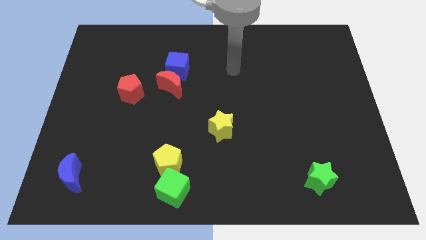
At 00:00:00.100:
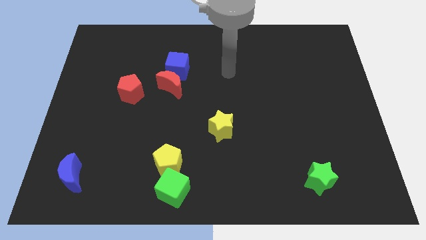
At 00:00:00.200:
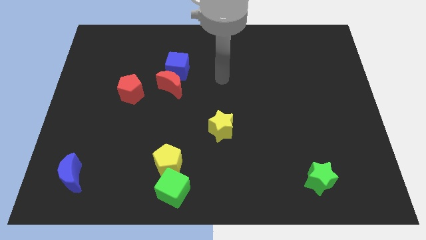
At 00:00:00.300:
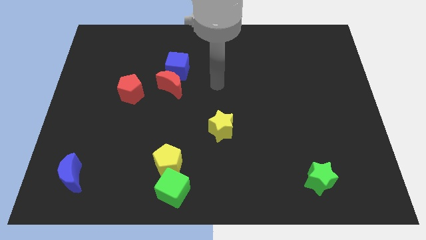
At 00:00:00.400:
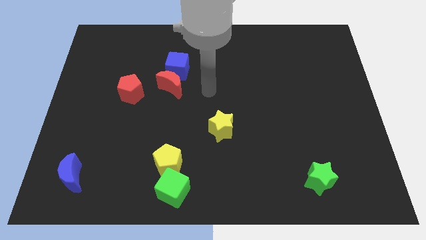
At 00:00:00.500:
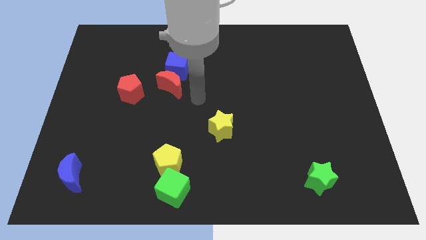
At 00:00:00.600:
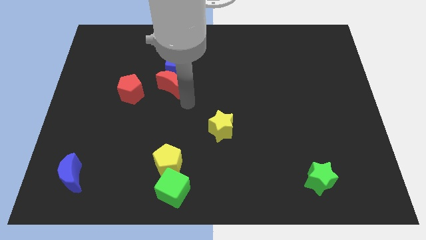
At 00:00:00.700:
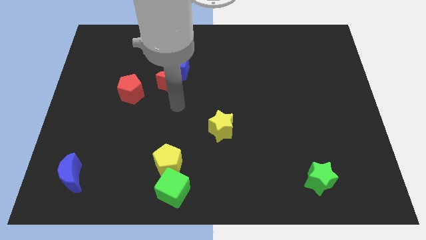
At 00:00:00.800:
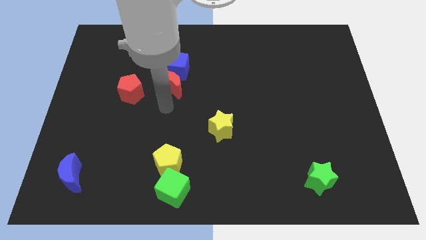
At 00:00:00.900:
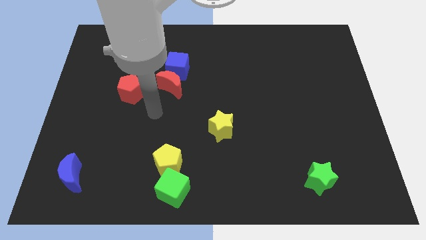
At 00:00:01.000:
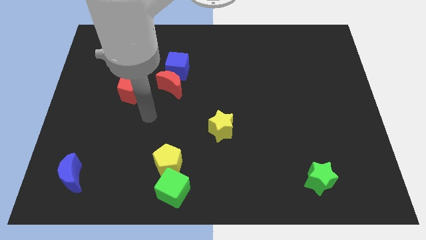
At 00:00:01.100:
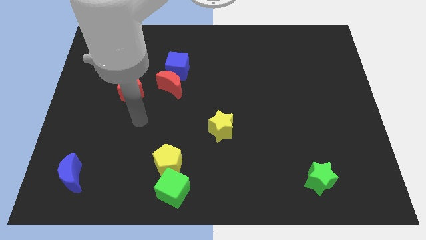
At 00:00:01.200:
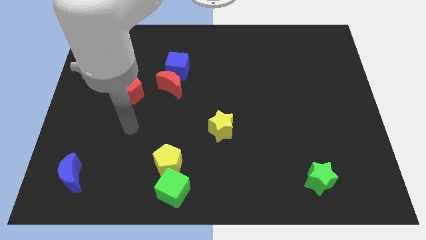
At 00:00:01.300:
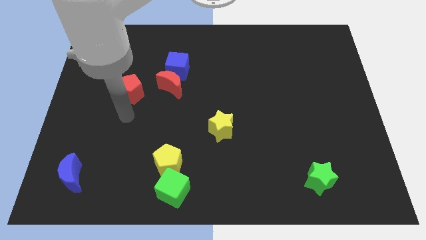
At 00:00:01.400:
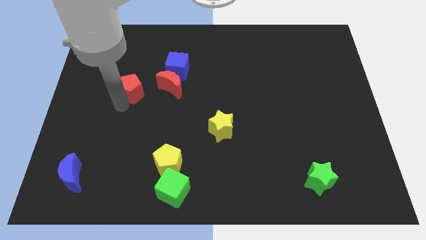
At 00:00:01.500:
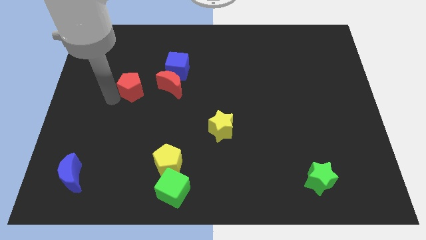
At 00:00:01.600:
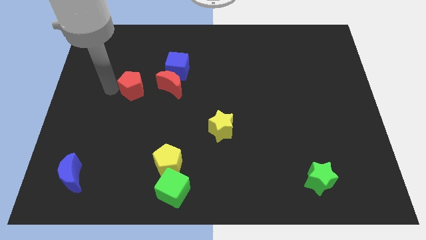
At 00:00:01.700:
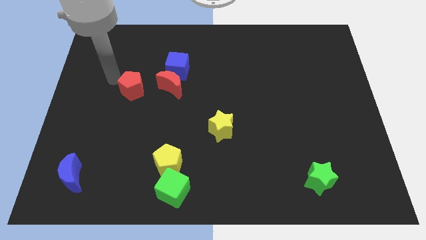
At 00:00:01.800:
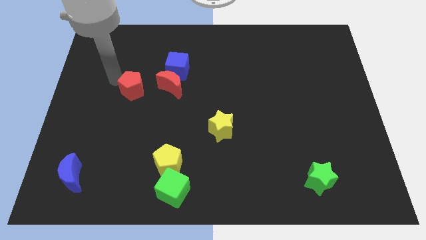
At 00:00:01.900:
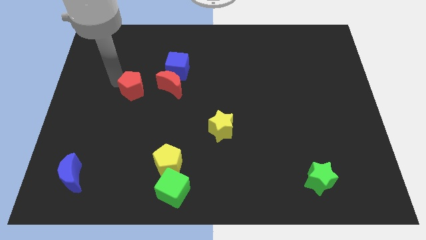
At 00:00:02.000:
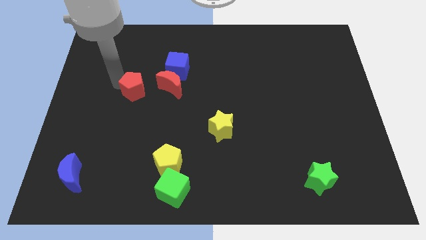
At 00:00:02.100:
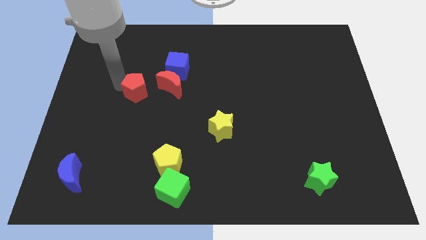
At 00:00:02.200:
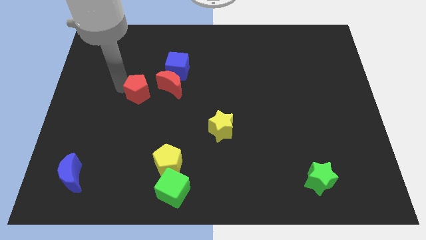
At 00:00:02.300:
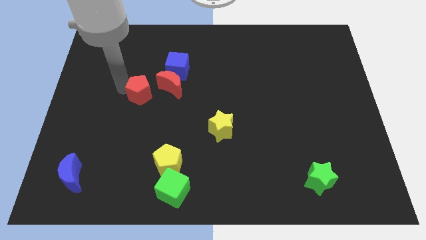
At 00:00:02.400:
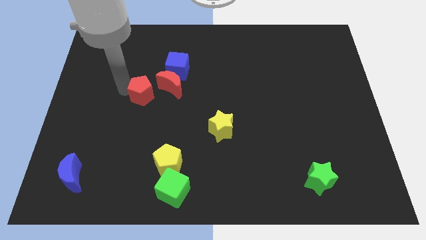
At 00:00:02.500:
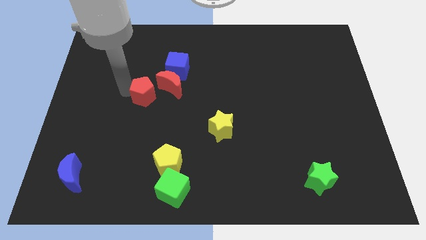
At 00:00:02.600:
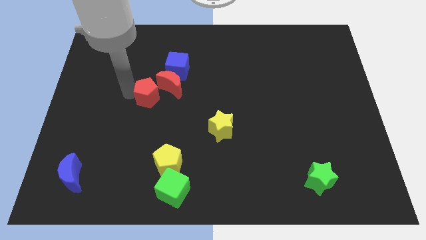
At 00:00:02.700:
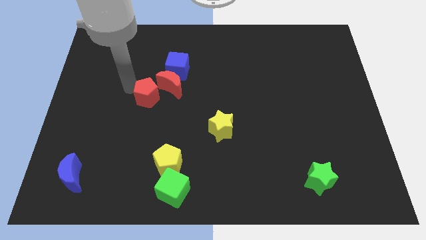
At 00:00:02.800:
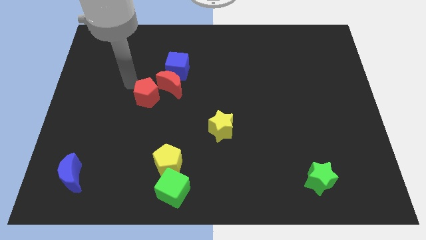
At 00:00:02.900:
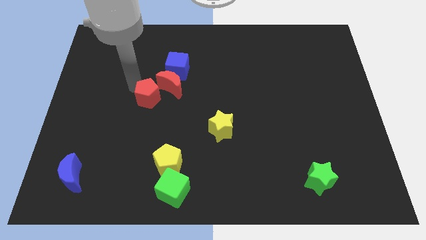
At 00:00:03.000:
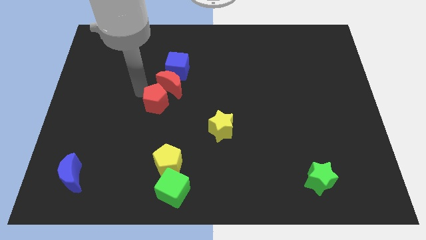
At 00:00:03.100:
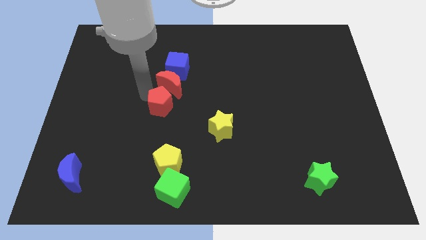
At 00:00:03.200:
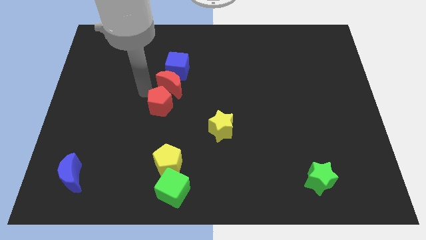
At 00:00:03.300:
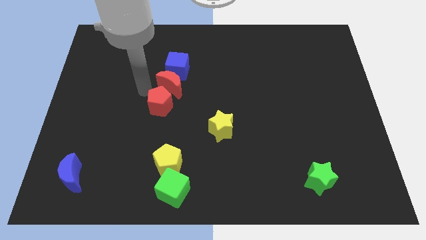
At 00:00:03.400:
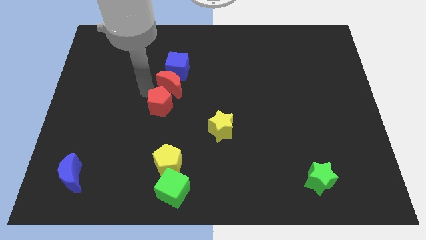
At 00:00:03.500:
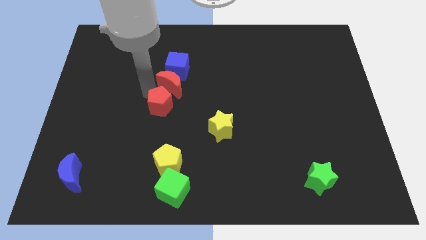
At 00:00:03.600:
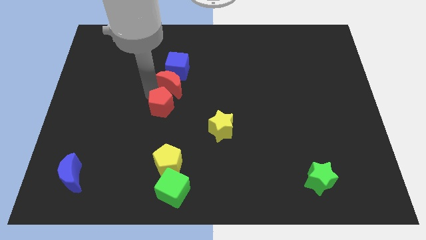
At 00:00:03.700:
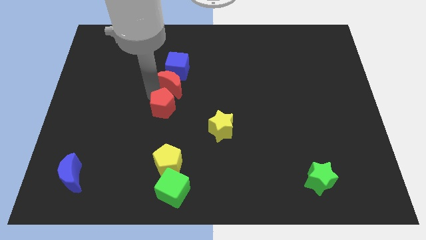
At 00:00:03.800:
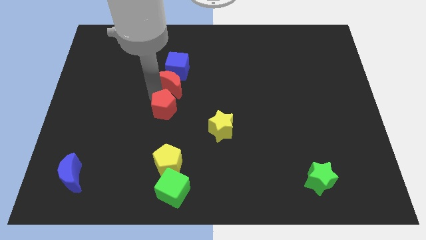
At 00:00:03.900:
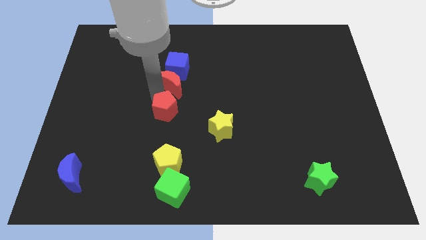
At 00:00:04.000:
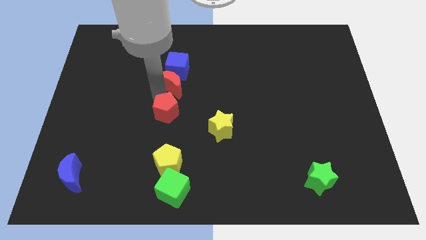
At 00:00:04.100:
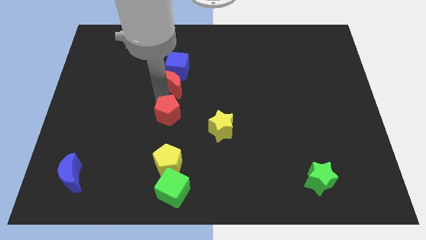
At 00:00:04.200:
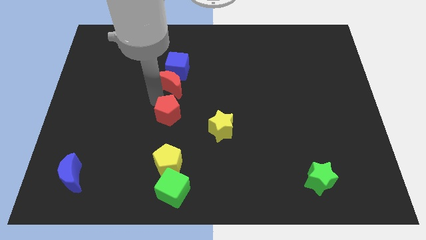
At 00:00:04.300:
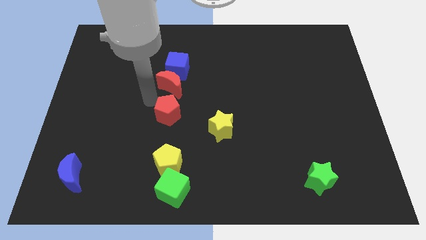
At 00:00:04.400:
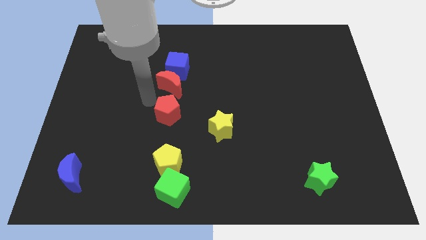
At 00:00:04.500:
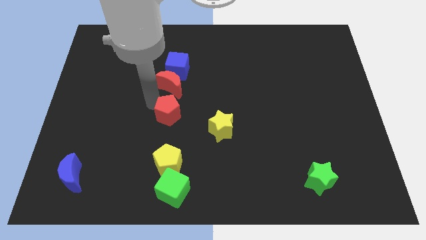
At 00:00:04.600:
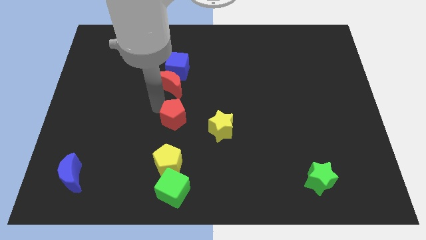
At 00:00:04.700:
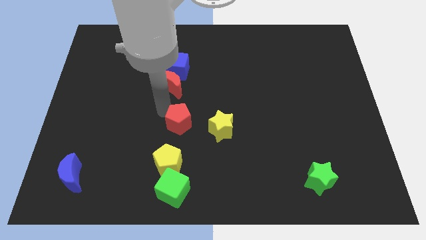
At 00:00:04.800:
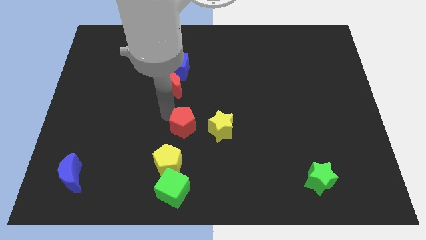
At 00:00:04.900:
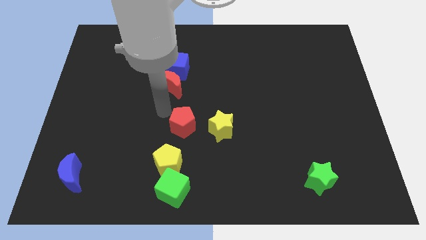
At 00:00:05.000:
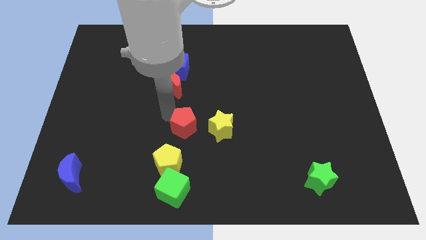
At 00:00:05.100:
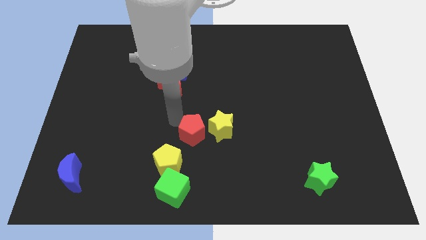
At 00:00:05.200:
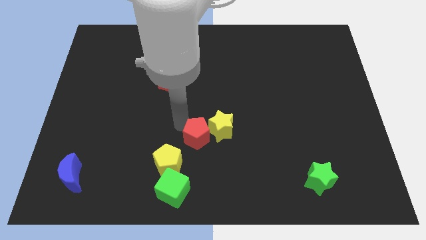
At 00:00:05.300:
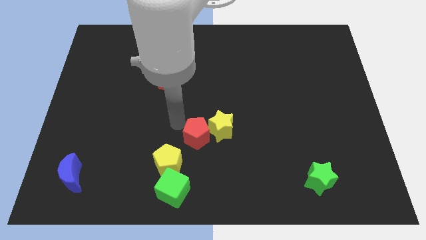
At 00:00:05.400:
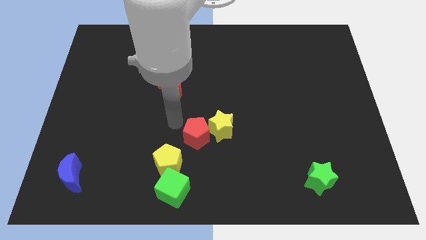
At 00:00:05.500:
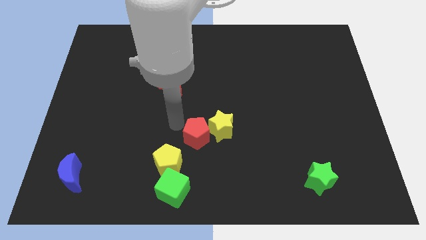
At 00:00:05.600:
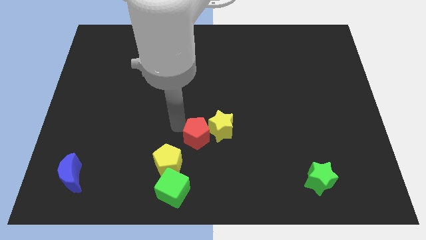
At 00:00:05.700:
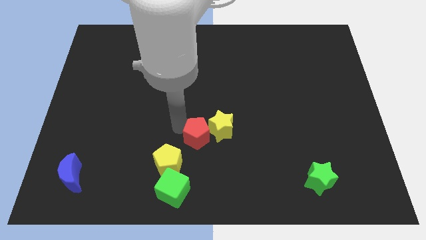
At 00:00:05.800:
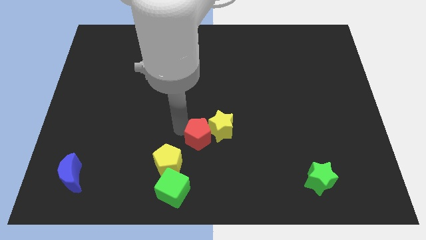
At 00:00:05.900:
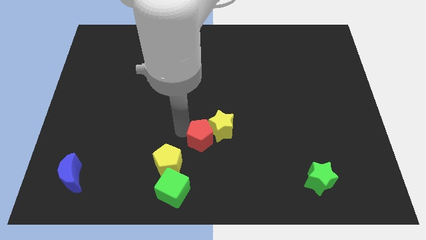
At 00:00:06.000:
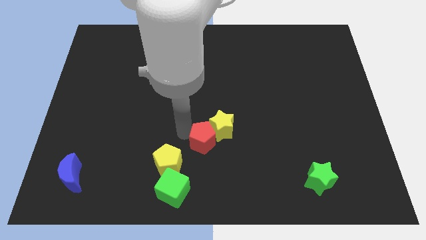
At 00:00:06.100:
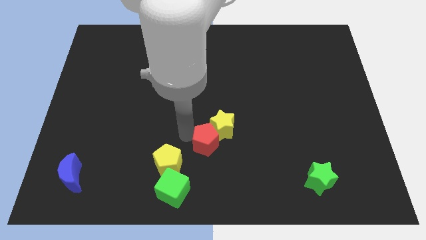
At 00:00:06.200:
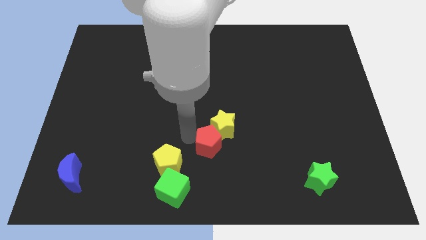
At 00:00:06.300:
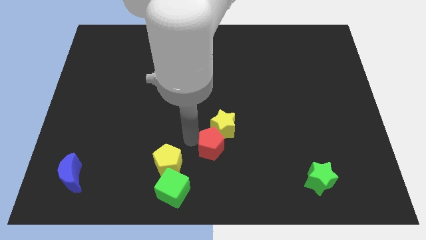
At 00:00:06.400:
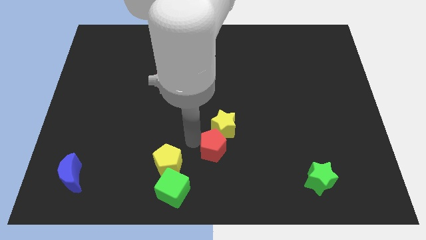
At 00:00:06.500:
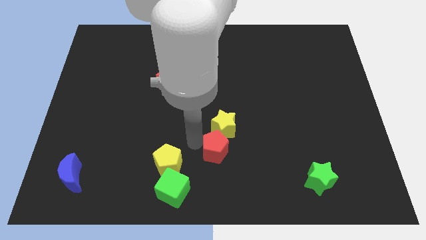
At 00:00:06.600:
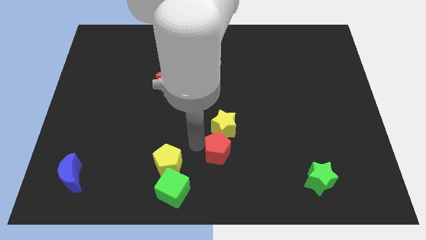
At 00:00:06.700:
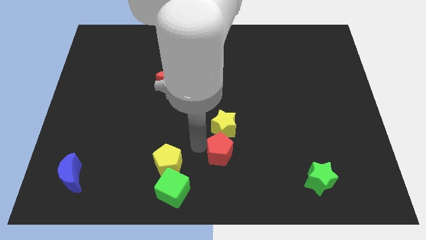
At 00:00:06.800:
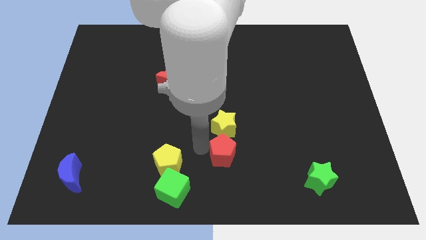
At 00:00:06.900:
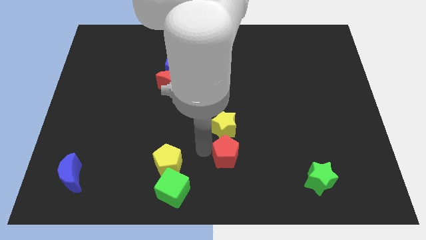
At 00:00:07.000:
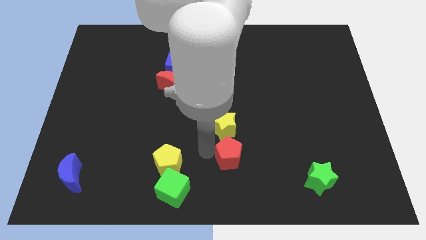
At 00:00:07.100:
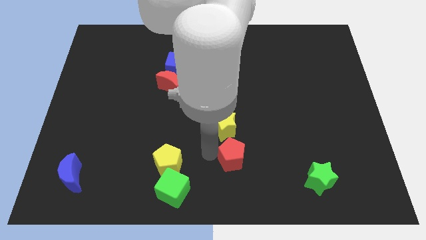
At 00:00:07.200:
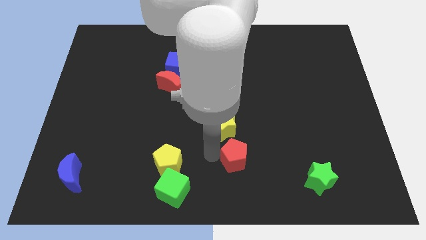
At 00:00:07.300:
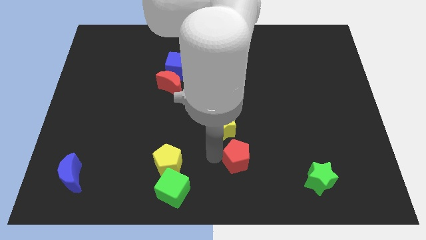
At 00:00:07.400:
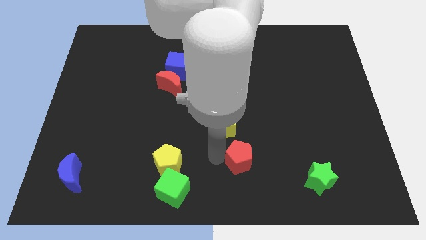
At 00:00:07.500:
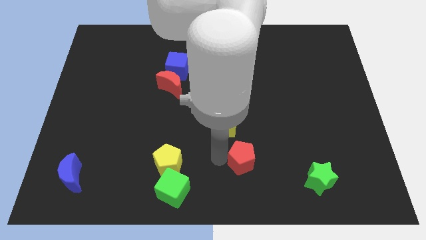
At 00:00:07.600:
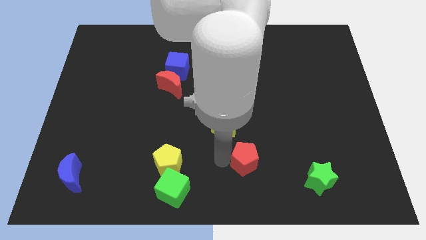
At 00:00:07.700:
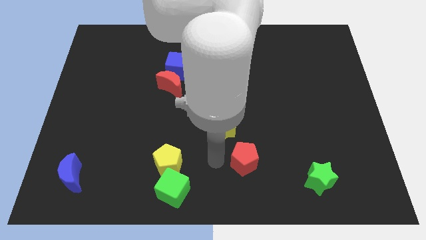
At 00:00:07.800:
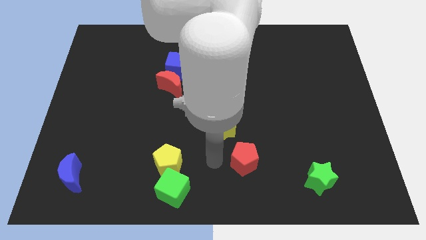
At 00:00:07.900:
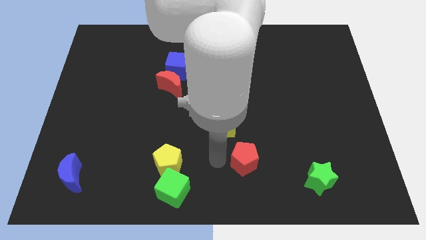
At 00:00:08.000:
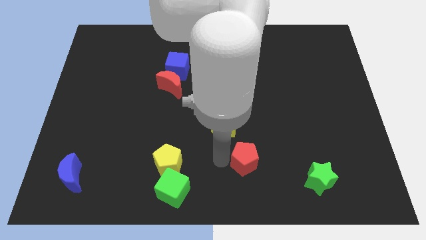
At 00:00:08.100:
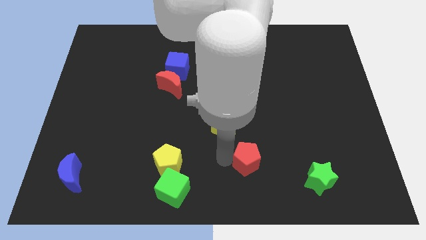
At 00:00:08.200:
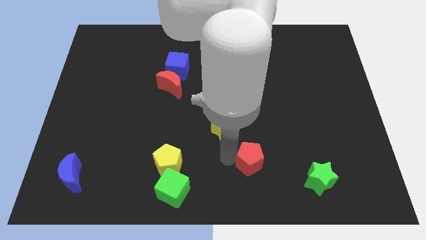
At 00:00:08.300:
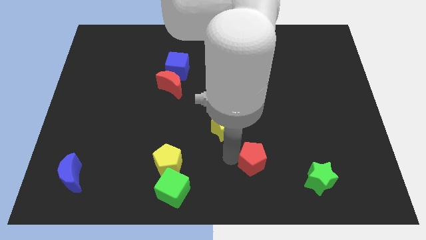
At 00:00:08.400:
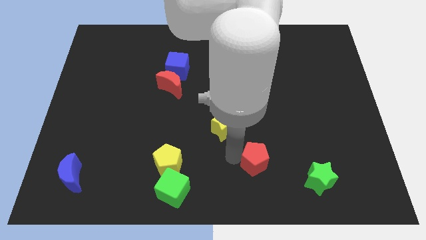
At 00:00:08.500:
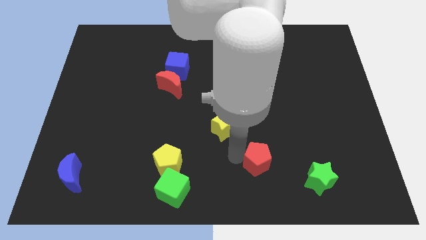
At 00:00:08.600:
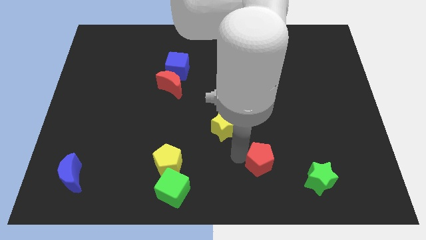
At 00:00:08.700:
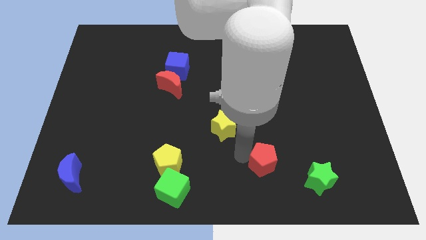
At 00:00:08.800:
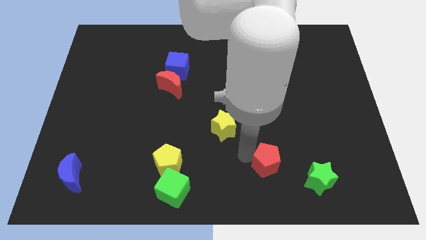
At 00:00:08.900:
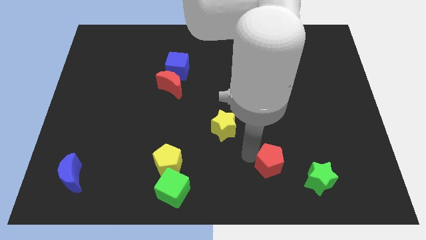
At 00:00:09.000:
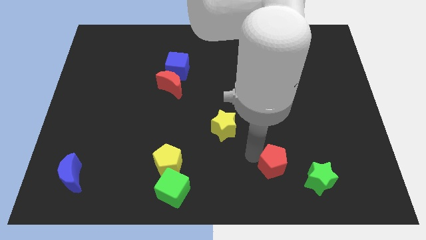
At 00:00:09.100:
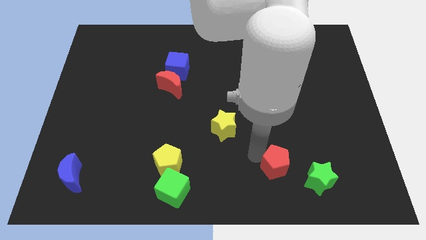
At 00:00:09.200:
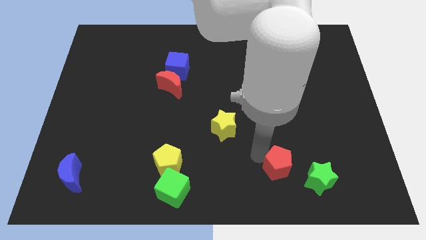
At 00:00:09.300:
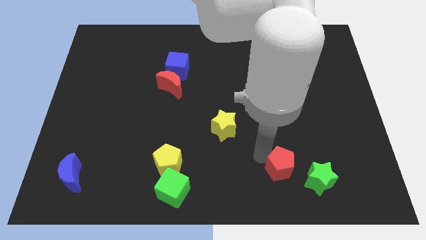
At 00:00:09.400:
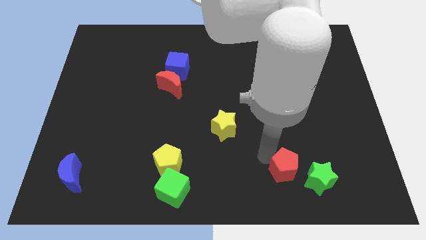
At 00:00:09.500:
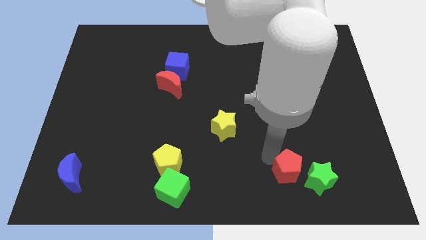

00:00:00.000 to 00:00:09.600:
push the red pentagon close to the green star
